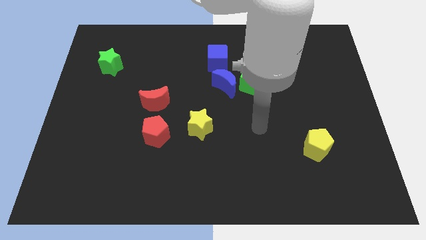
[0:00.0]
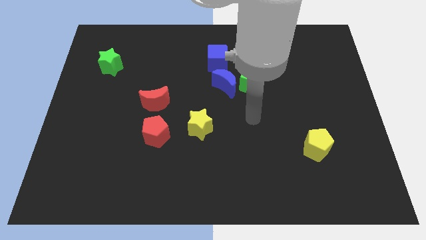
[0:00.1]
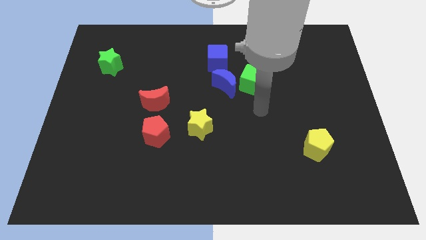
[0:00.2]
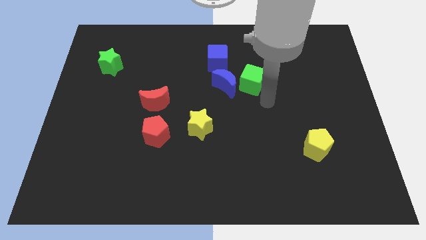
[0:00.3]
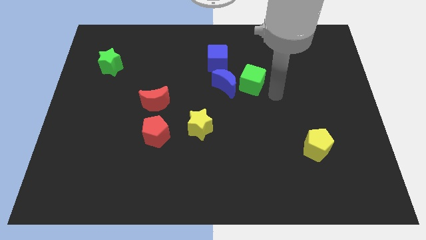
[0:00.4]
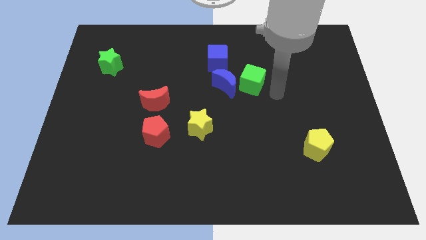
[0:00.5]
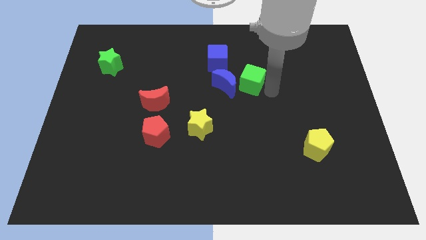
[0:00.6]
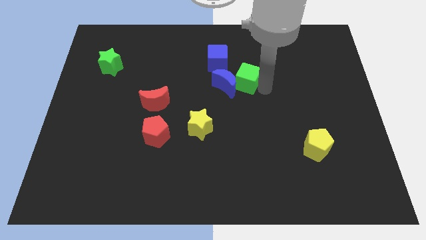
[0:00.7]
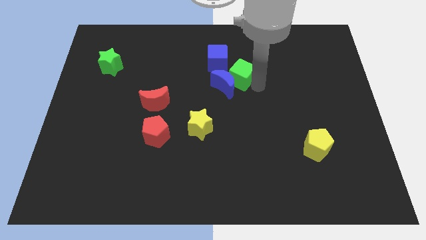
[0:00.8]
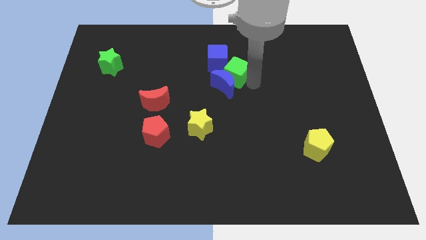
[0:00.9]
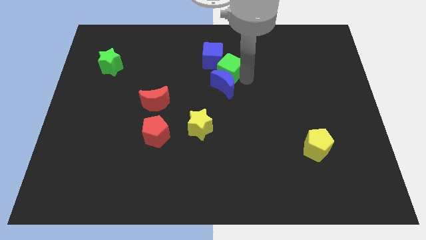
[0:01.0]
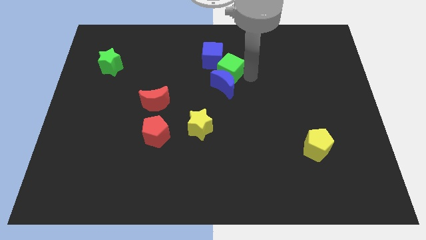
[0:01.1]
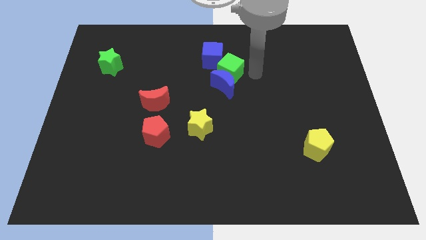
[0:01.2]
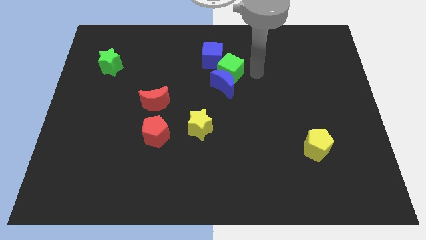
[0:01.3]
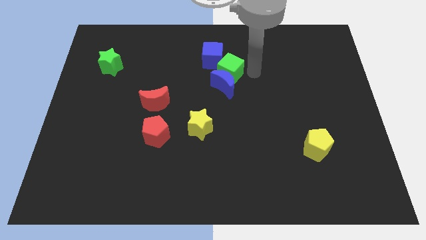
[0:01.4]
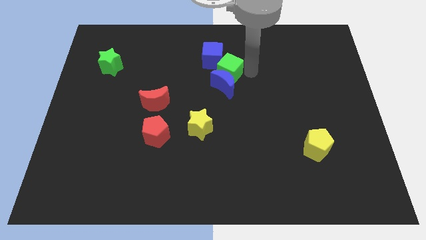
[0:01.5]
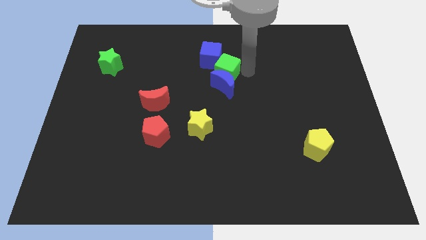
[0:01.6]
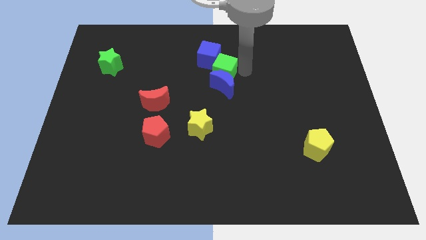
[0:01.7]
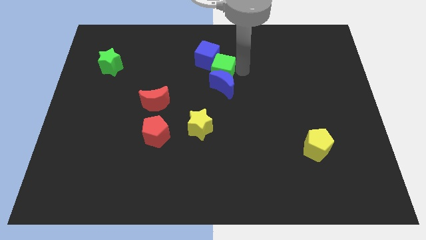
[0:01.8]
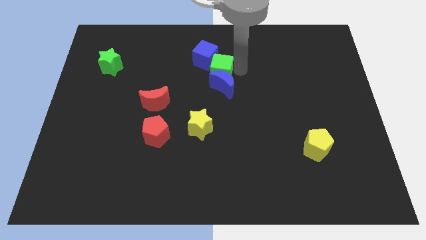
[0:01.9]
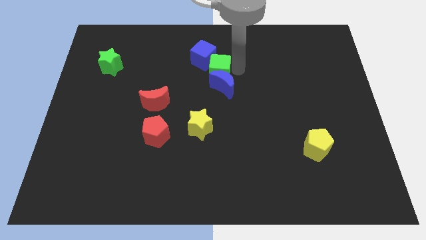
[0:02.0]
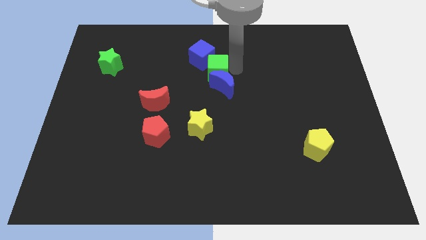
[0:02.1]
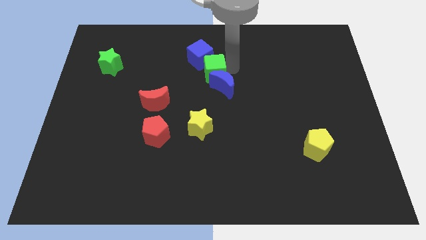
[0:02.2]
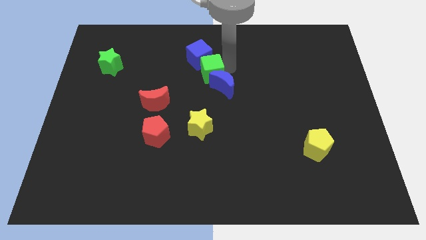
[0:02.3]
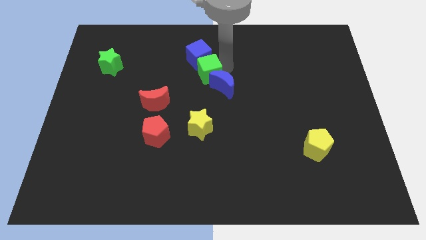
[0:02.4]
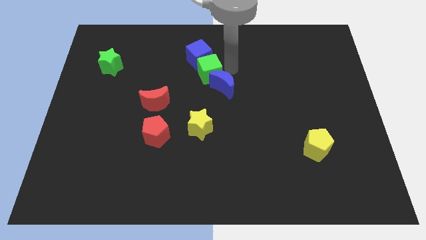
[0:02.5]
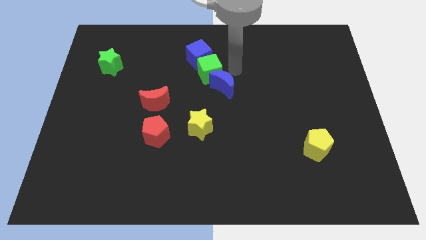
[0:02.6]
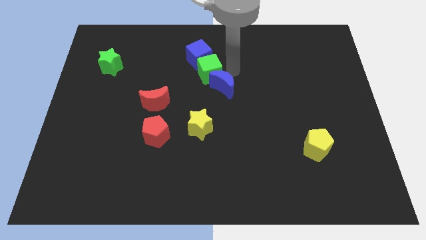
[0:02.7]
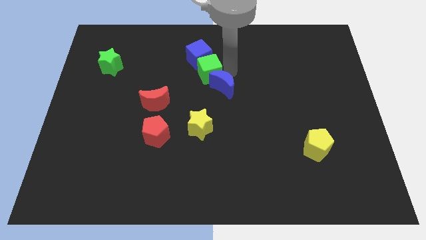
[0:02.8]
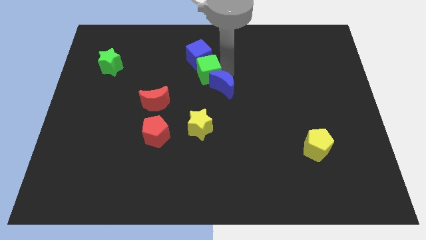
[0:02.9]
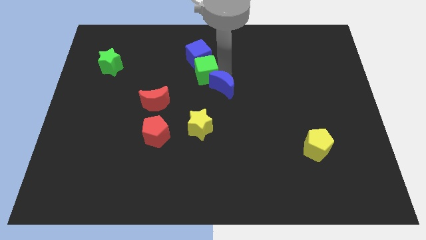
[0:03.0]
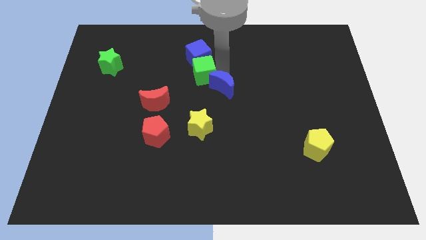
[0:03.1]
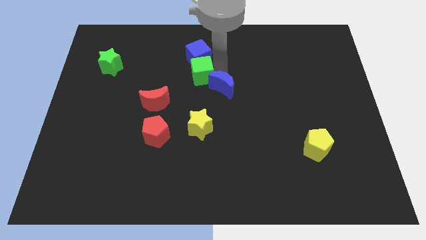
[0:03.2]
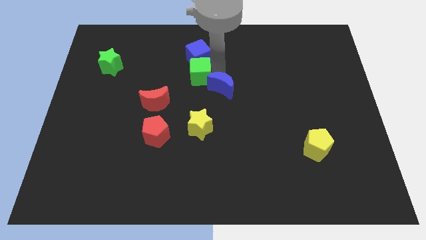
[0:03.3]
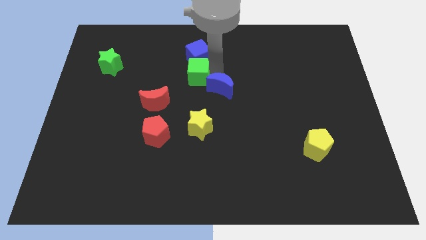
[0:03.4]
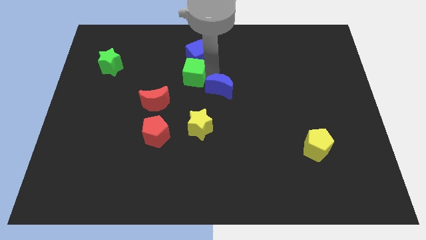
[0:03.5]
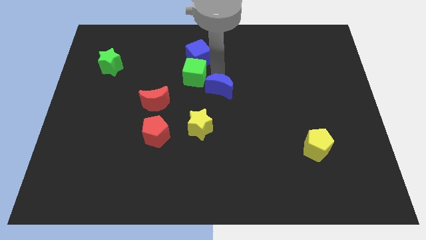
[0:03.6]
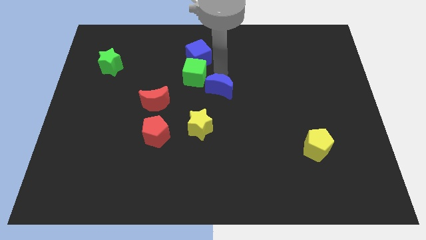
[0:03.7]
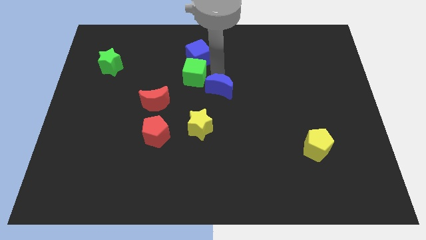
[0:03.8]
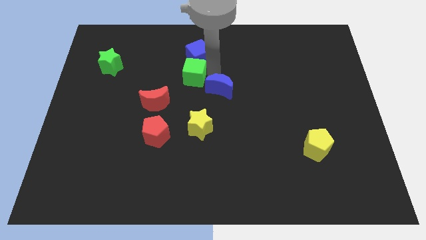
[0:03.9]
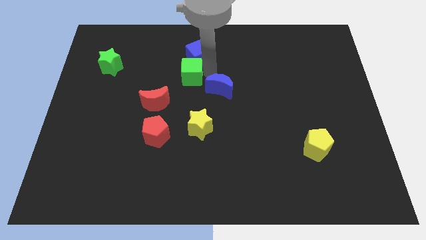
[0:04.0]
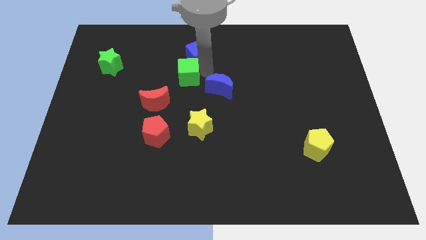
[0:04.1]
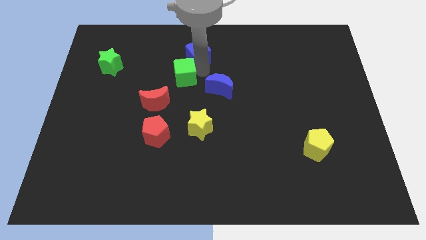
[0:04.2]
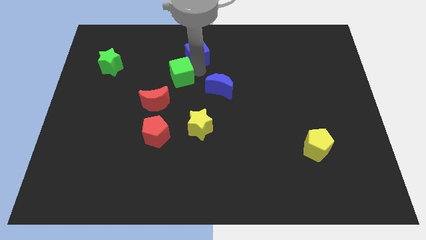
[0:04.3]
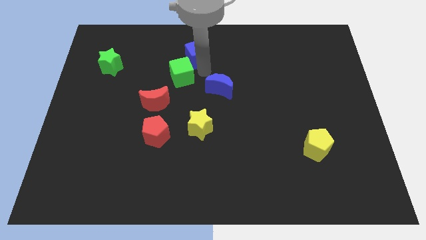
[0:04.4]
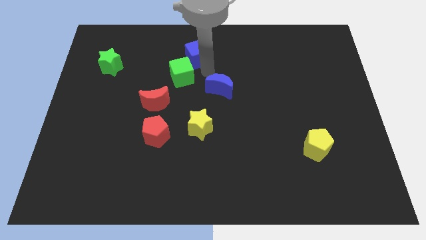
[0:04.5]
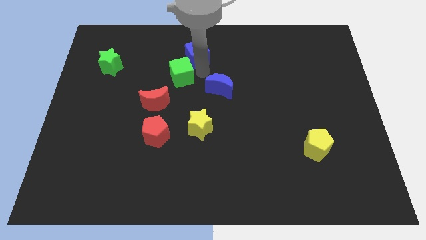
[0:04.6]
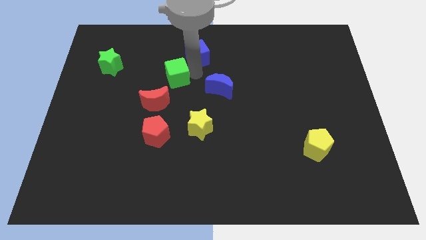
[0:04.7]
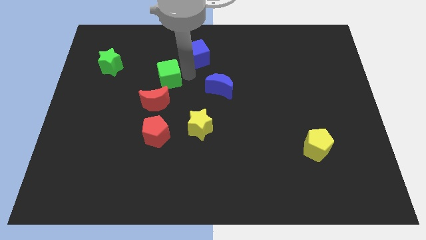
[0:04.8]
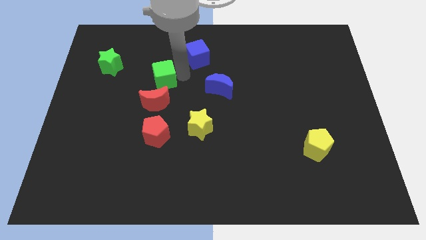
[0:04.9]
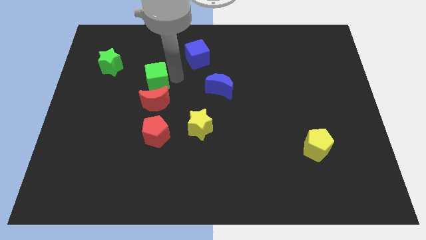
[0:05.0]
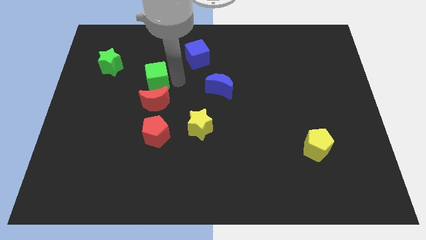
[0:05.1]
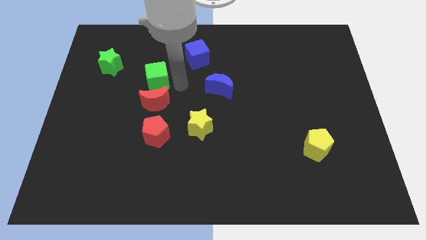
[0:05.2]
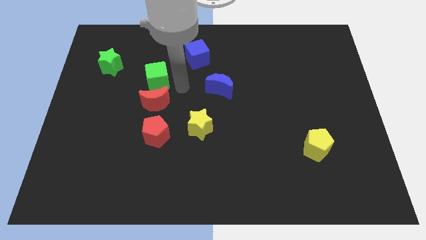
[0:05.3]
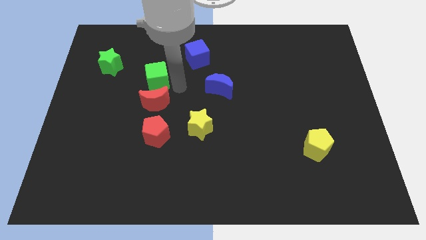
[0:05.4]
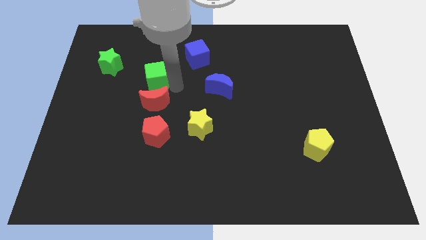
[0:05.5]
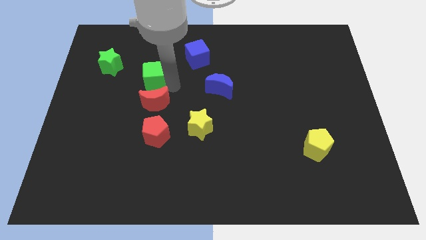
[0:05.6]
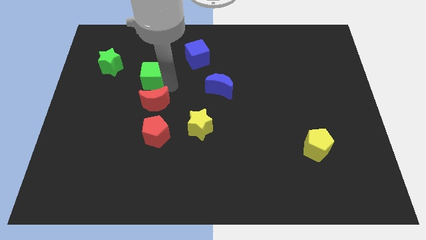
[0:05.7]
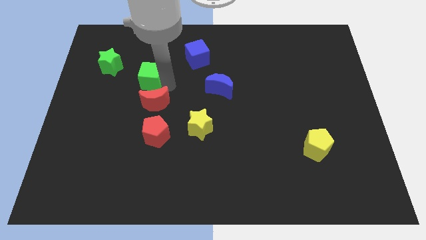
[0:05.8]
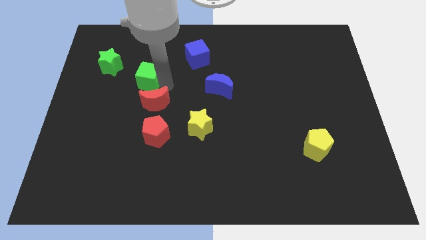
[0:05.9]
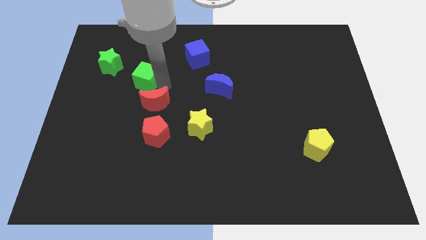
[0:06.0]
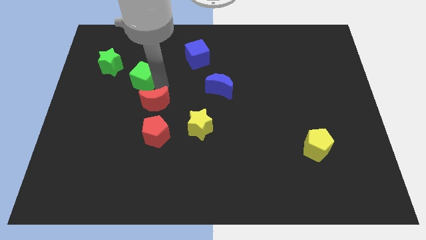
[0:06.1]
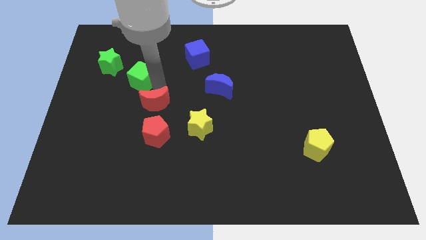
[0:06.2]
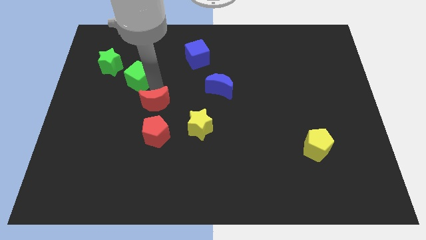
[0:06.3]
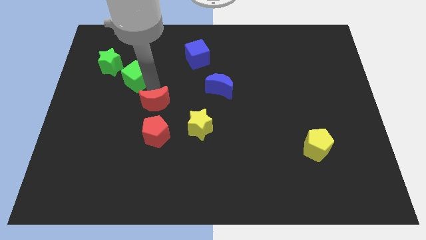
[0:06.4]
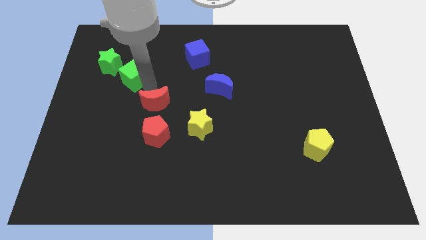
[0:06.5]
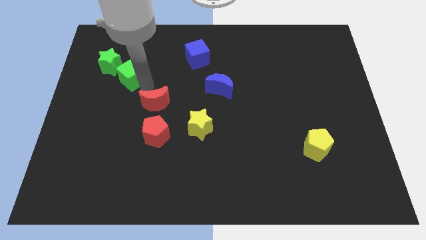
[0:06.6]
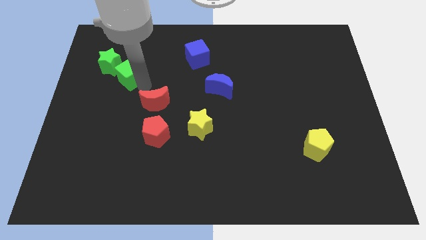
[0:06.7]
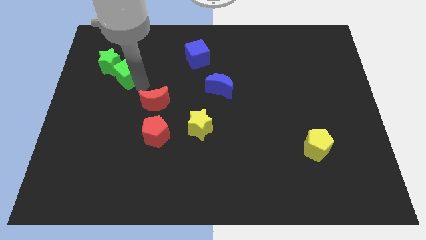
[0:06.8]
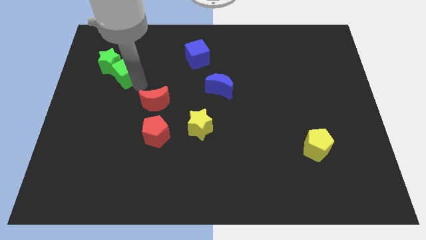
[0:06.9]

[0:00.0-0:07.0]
slide the green cube close to the green star
